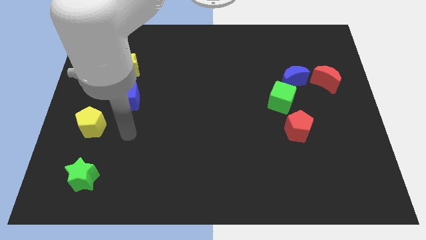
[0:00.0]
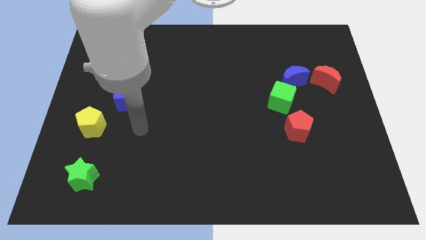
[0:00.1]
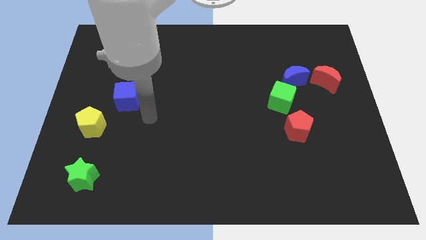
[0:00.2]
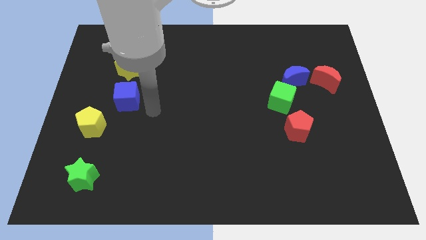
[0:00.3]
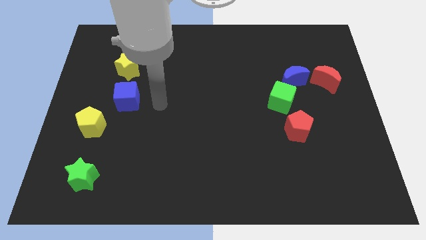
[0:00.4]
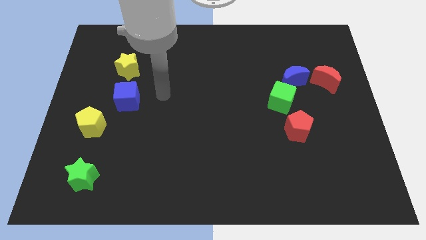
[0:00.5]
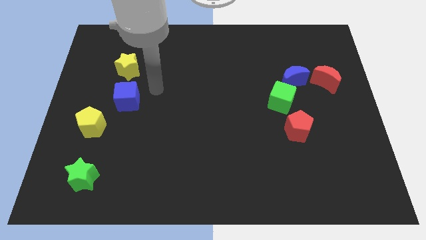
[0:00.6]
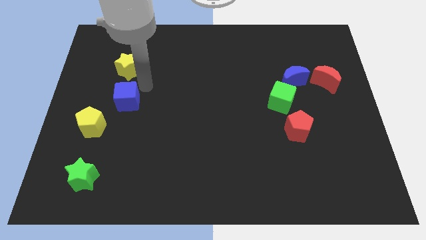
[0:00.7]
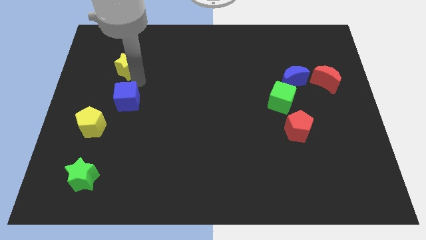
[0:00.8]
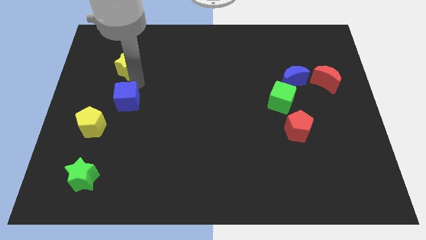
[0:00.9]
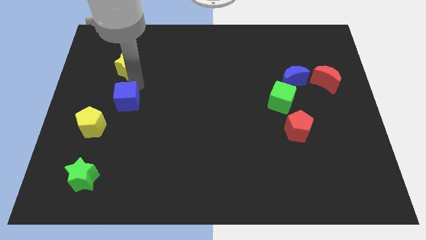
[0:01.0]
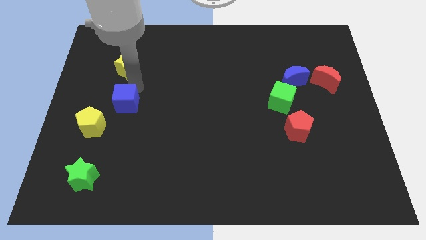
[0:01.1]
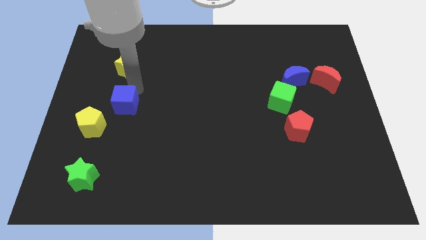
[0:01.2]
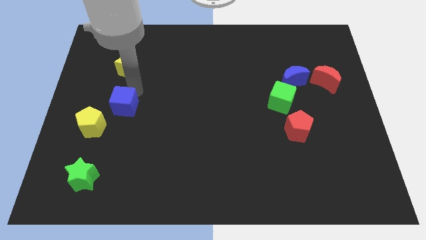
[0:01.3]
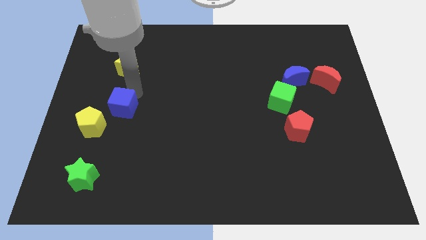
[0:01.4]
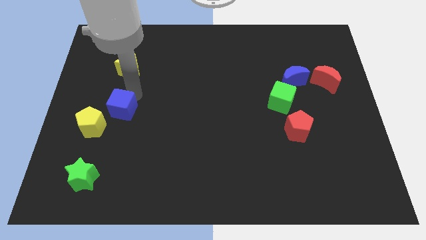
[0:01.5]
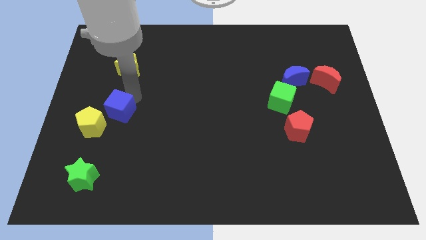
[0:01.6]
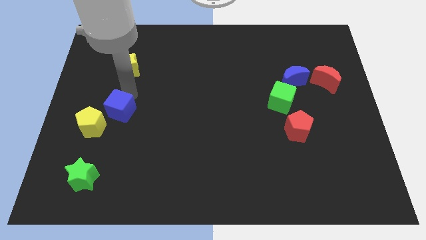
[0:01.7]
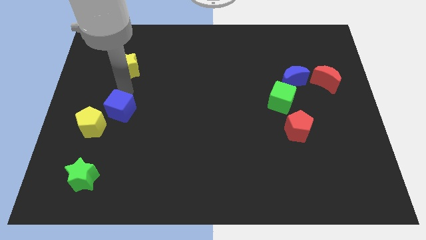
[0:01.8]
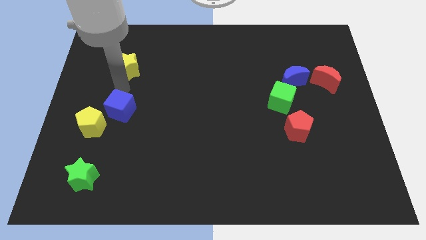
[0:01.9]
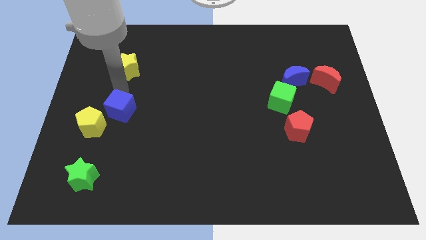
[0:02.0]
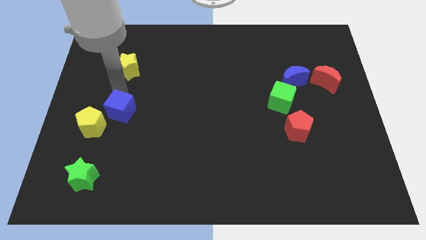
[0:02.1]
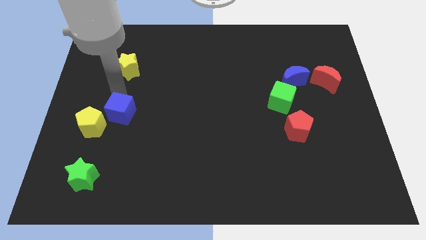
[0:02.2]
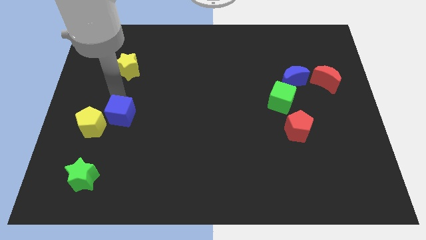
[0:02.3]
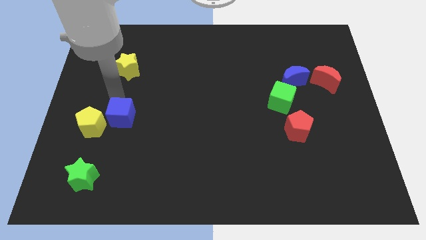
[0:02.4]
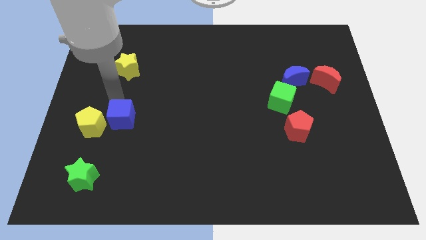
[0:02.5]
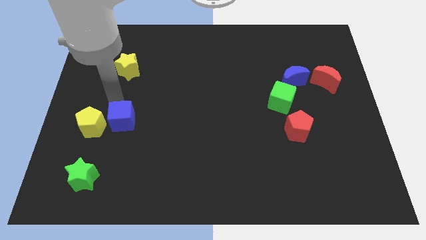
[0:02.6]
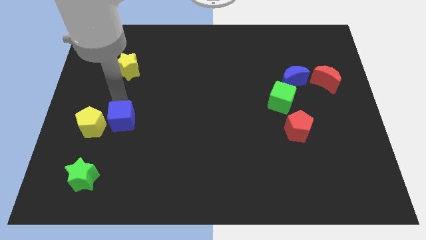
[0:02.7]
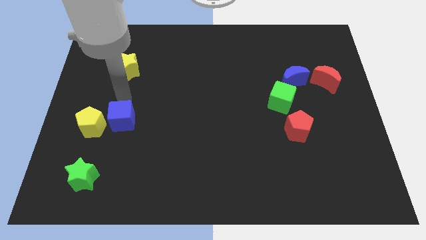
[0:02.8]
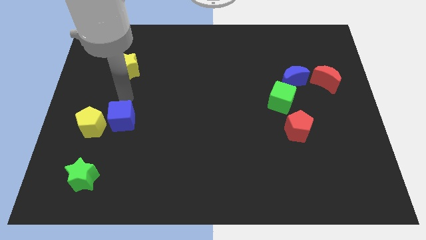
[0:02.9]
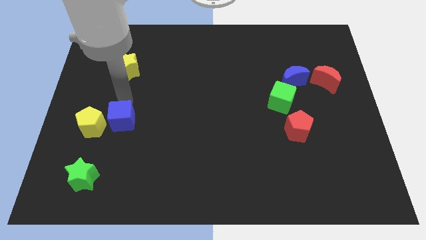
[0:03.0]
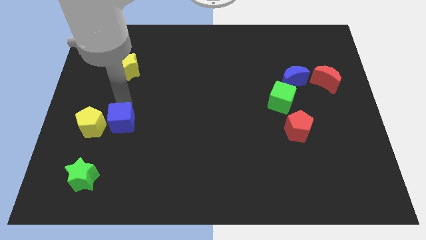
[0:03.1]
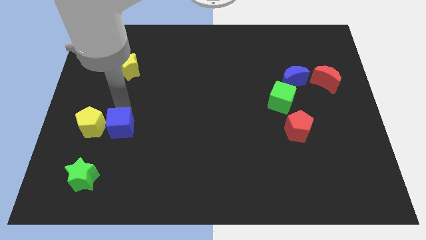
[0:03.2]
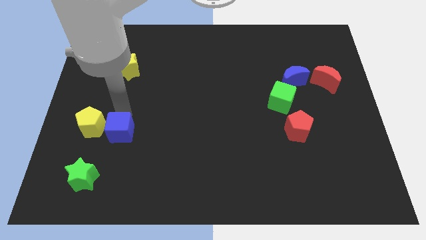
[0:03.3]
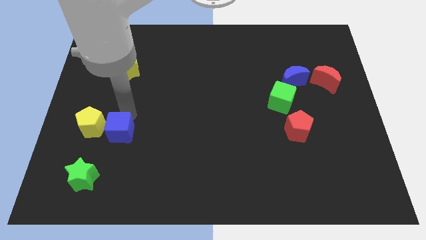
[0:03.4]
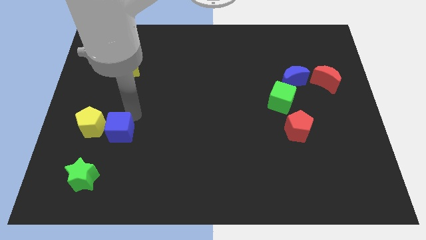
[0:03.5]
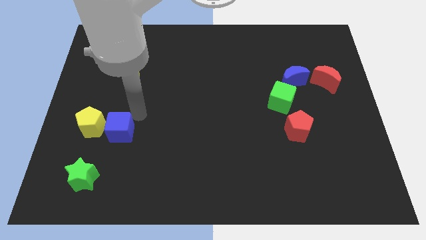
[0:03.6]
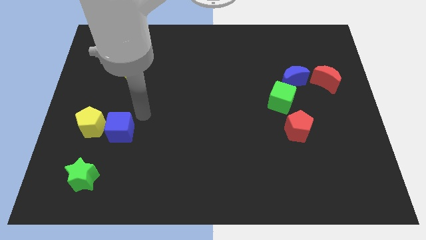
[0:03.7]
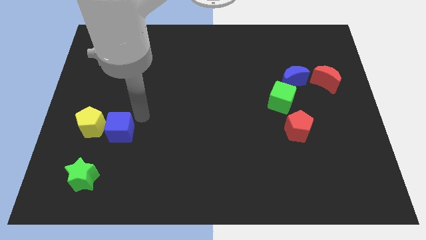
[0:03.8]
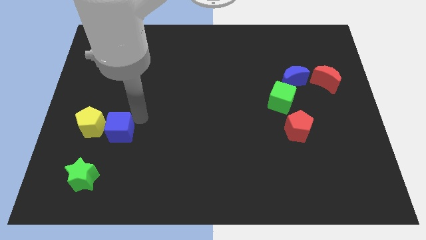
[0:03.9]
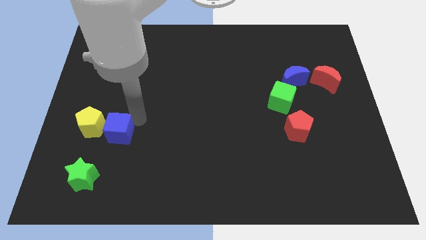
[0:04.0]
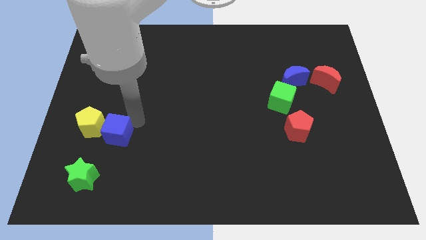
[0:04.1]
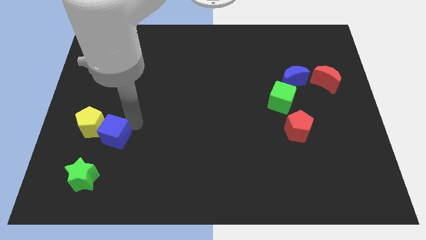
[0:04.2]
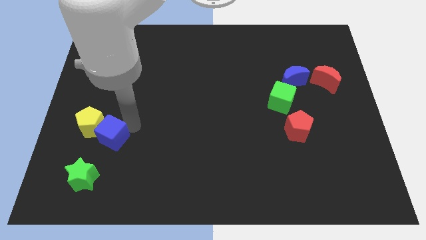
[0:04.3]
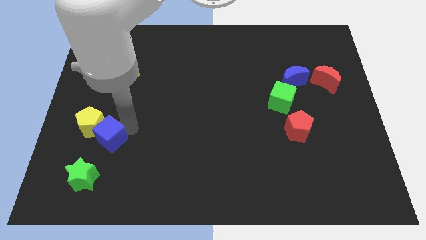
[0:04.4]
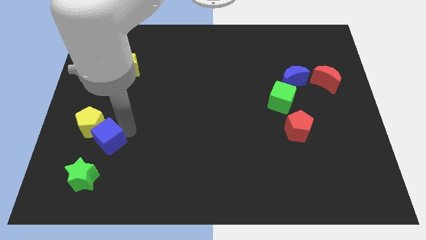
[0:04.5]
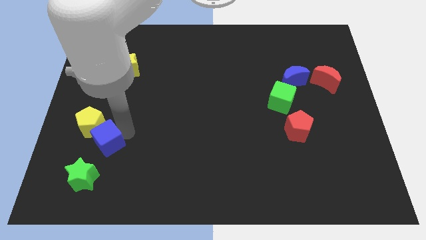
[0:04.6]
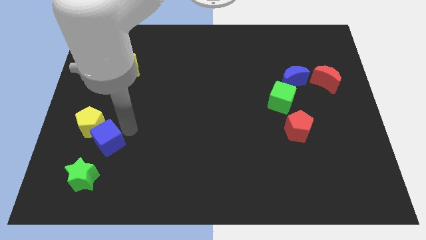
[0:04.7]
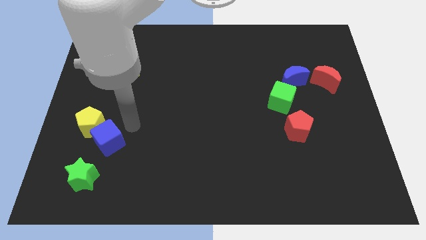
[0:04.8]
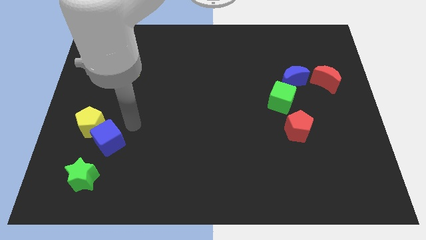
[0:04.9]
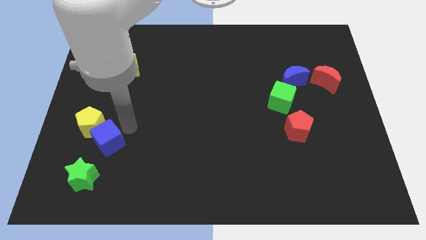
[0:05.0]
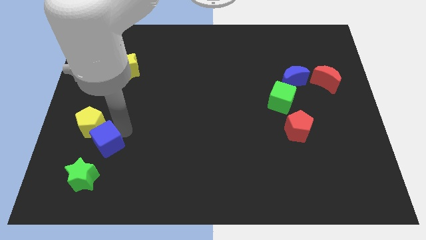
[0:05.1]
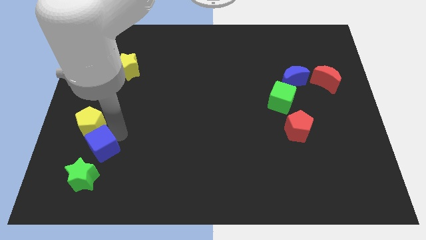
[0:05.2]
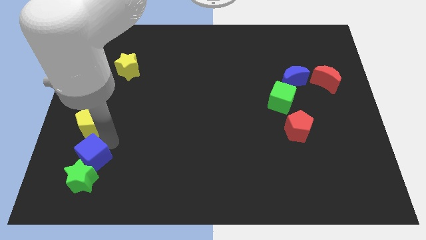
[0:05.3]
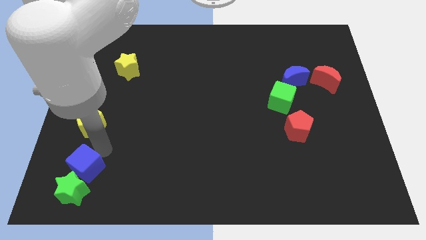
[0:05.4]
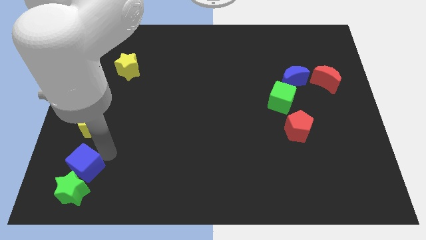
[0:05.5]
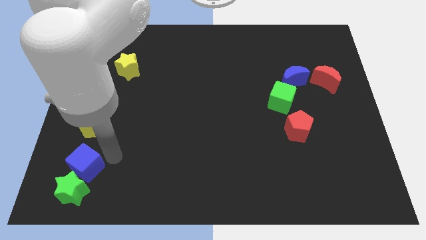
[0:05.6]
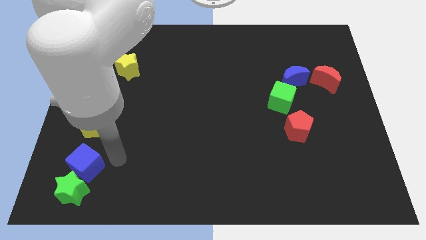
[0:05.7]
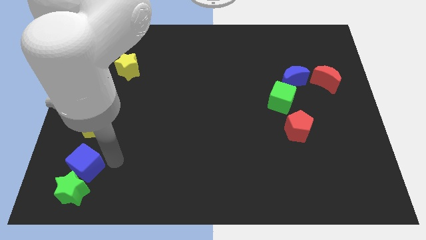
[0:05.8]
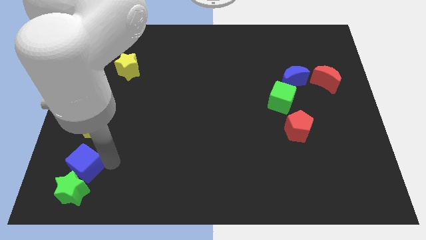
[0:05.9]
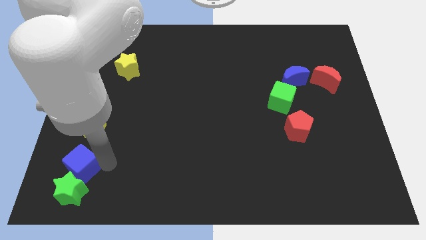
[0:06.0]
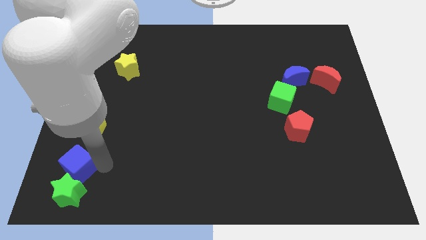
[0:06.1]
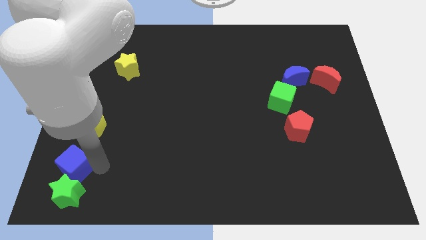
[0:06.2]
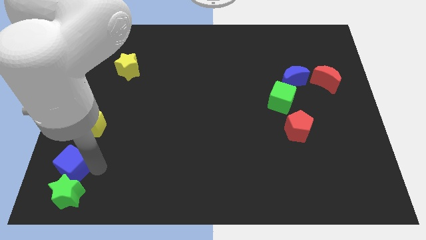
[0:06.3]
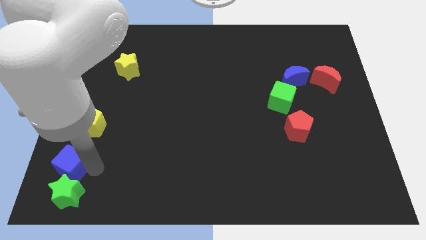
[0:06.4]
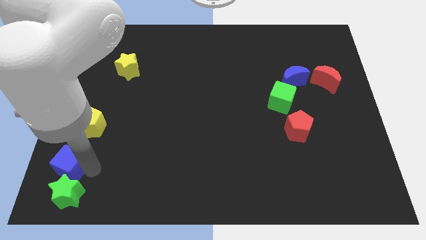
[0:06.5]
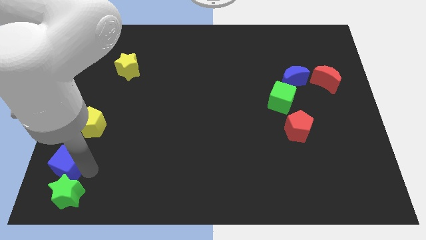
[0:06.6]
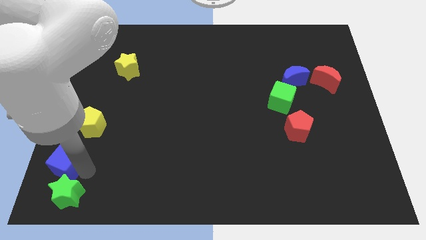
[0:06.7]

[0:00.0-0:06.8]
slide the blue cube to the bottom left corner

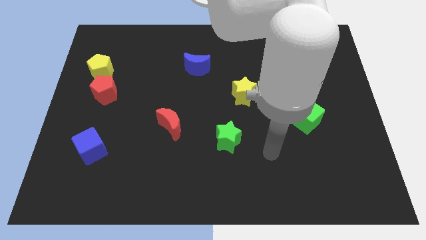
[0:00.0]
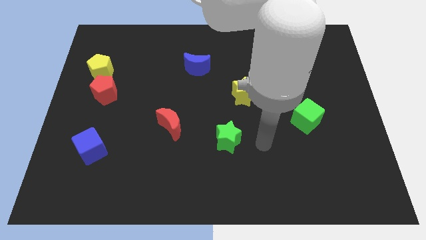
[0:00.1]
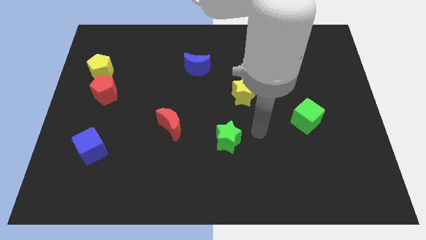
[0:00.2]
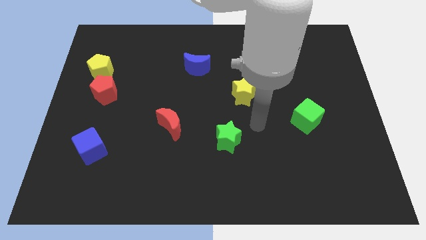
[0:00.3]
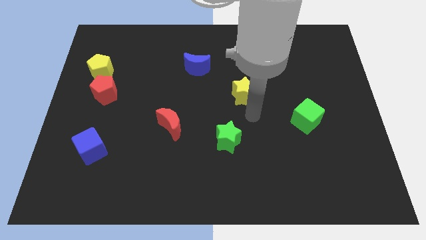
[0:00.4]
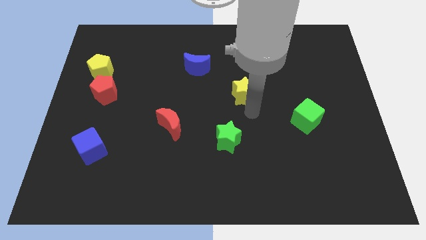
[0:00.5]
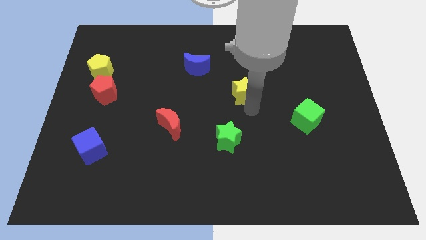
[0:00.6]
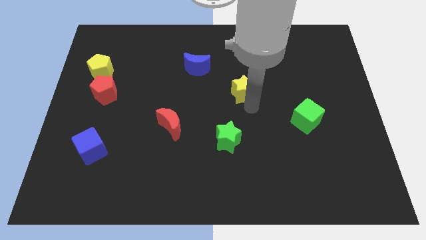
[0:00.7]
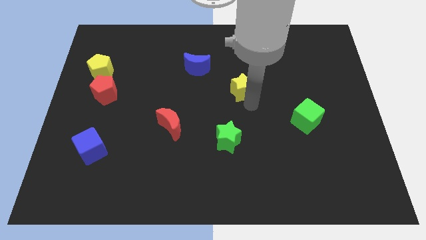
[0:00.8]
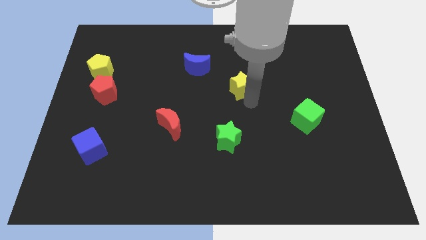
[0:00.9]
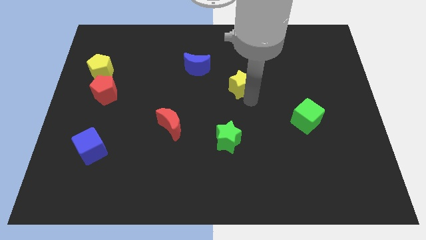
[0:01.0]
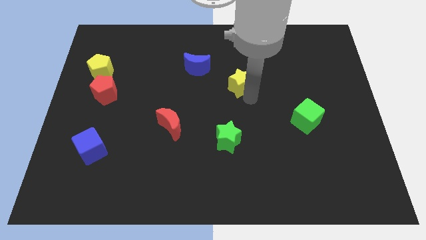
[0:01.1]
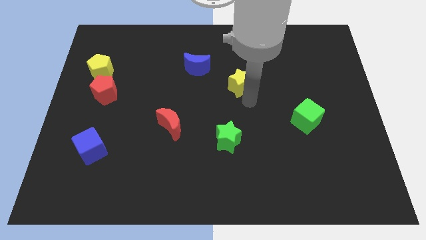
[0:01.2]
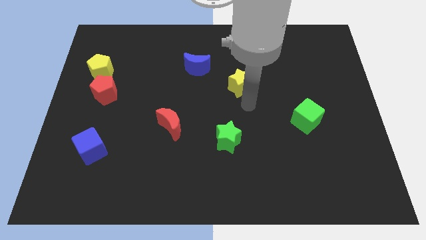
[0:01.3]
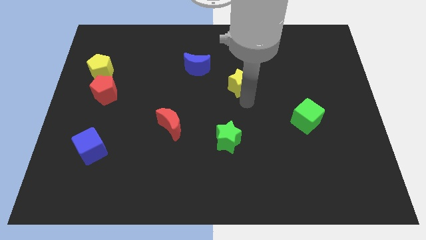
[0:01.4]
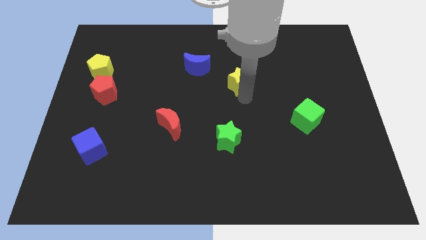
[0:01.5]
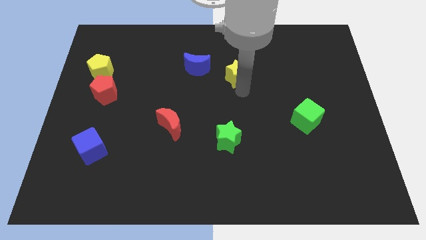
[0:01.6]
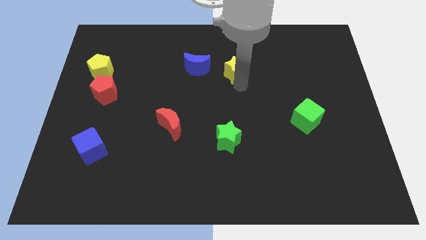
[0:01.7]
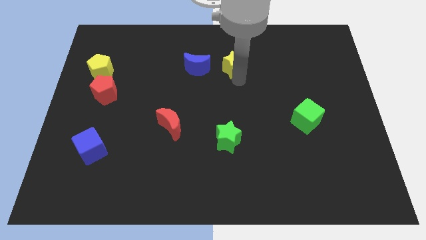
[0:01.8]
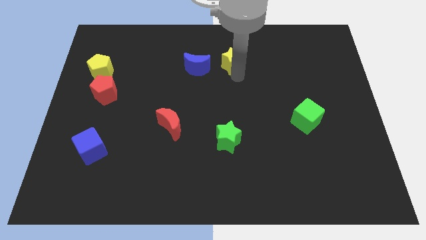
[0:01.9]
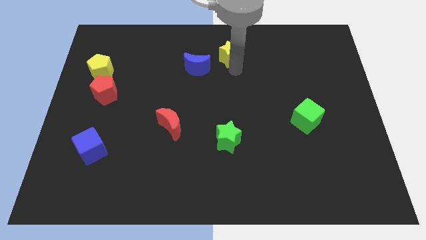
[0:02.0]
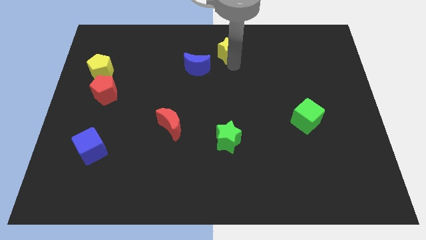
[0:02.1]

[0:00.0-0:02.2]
slide the yellow star to the top side
